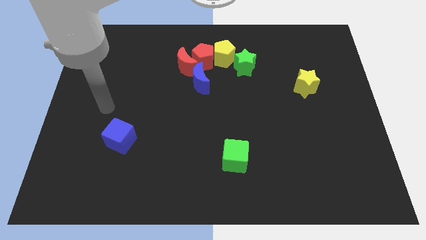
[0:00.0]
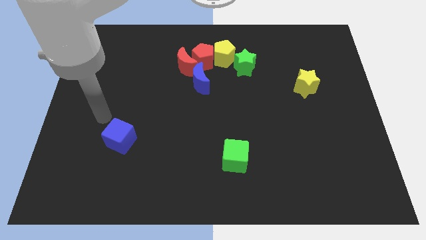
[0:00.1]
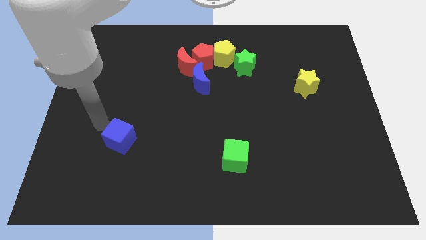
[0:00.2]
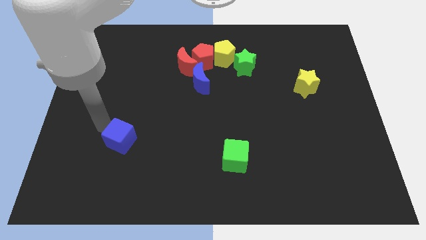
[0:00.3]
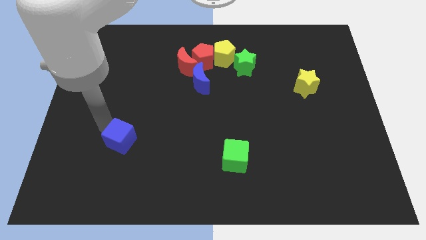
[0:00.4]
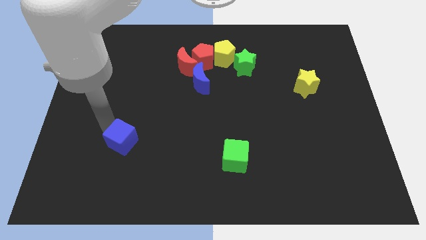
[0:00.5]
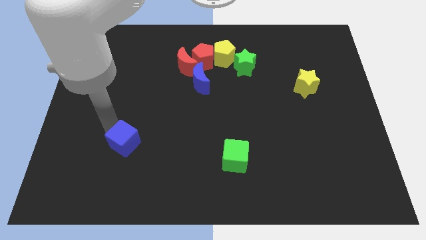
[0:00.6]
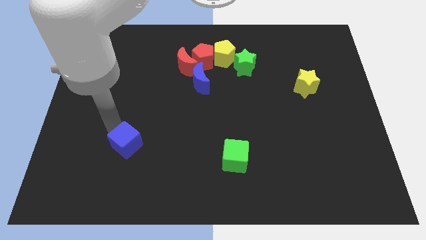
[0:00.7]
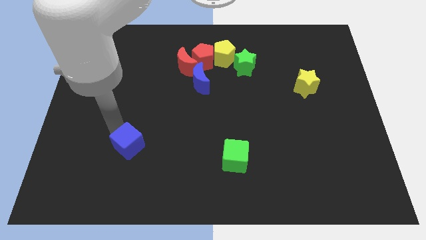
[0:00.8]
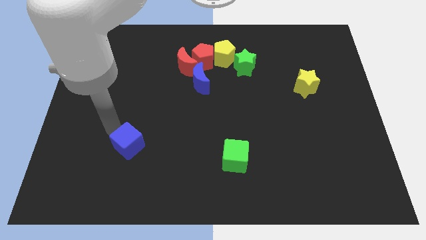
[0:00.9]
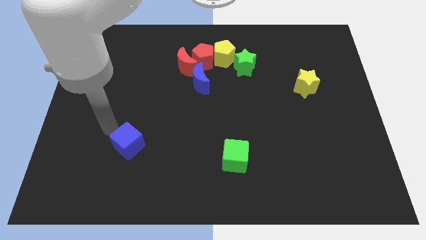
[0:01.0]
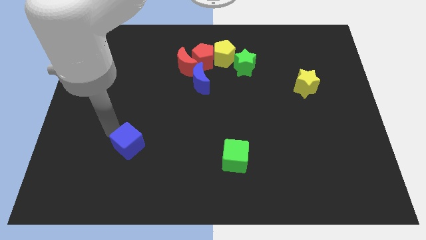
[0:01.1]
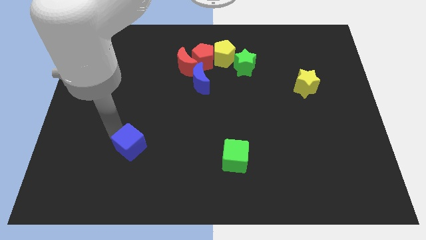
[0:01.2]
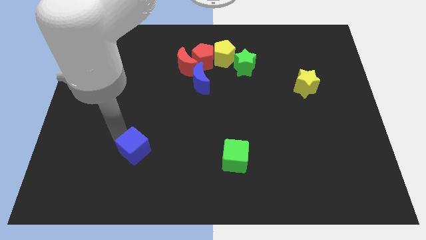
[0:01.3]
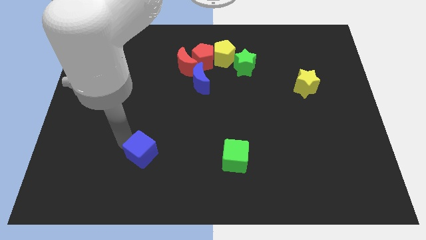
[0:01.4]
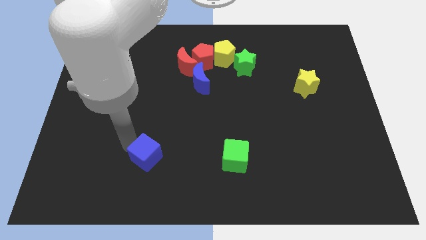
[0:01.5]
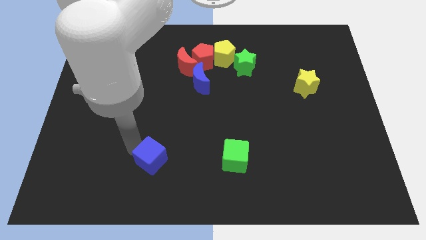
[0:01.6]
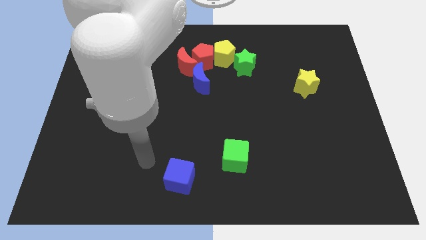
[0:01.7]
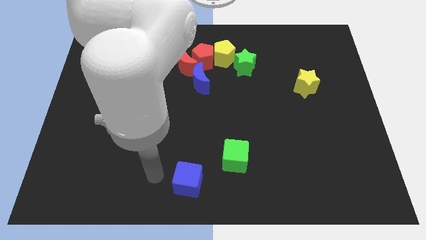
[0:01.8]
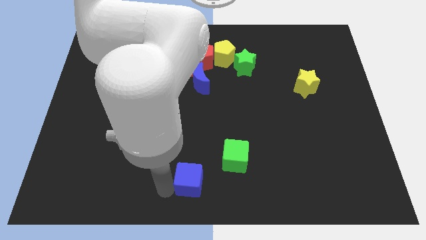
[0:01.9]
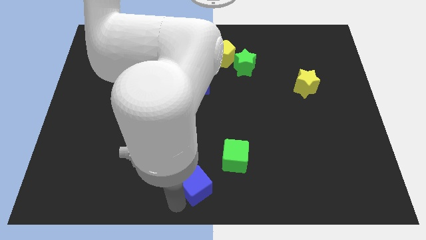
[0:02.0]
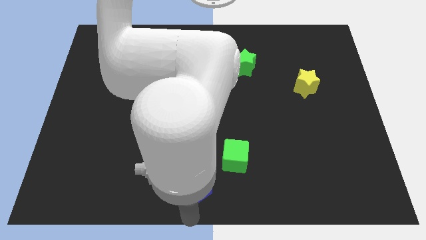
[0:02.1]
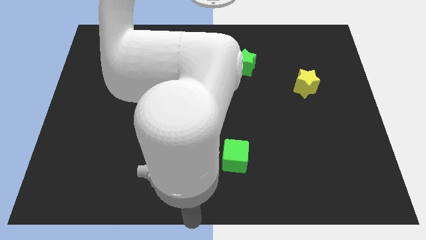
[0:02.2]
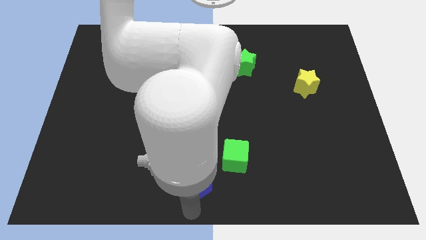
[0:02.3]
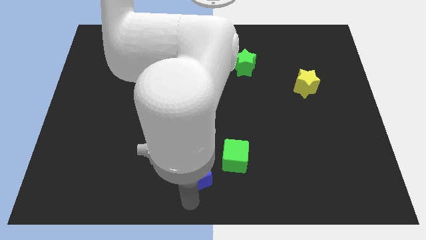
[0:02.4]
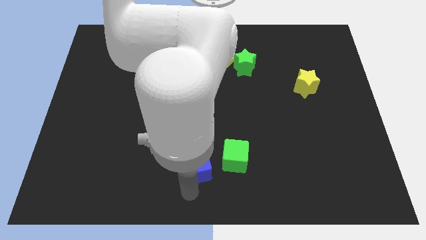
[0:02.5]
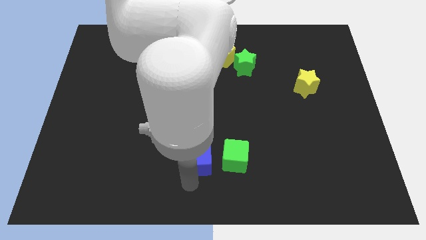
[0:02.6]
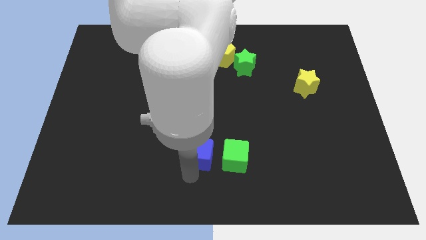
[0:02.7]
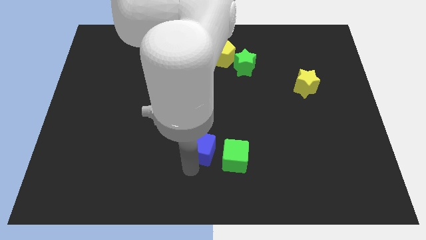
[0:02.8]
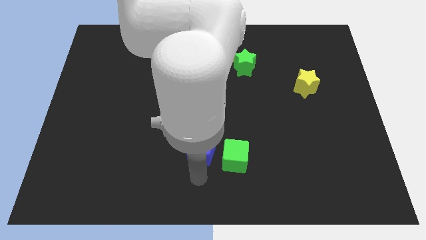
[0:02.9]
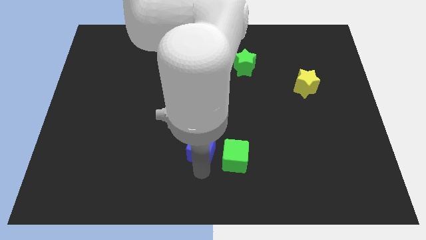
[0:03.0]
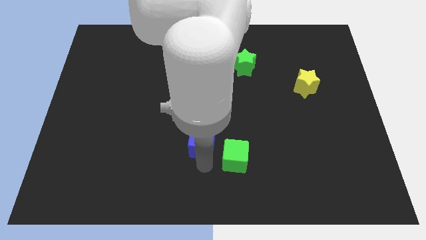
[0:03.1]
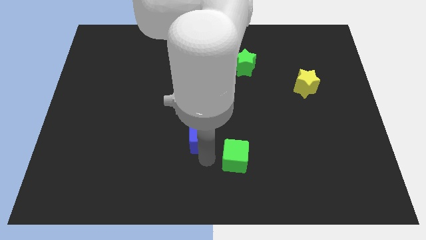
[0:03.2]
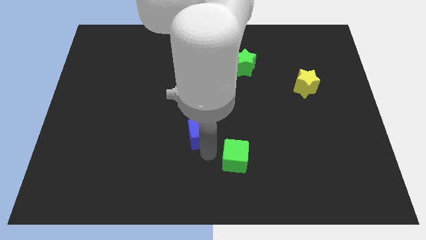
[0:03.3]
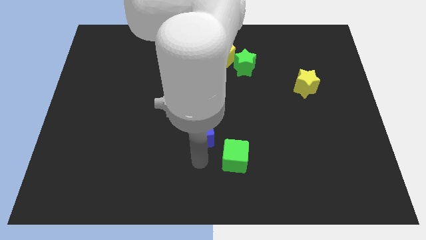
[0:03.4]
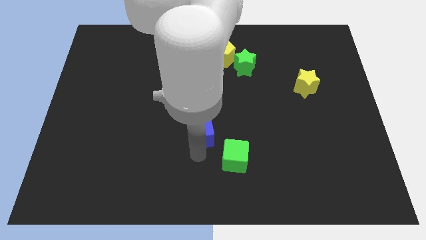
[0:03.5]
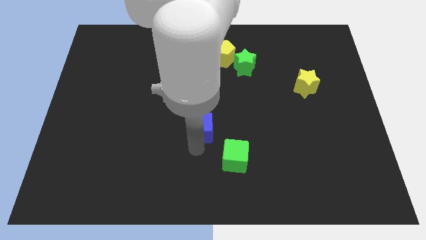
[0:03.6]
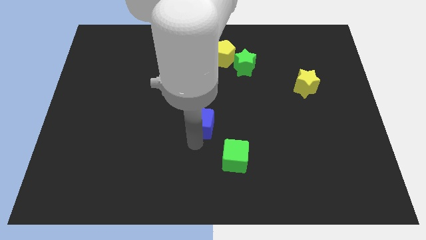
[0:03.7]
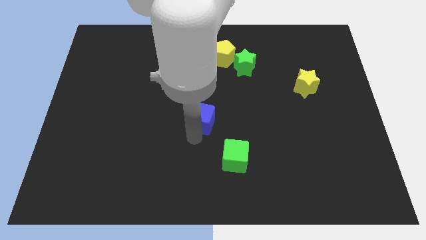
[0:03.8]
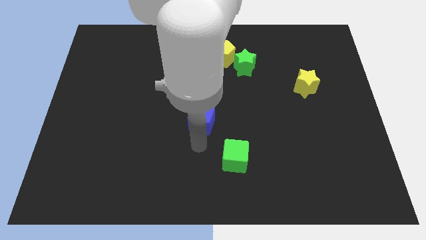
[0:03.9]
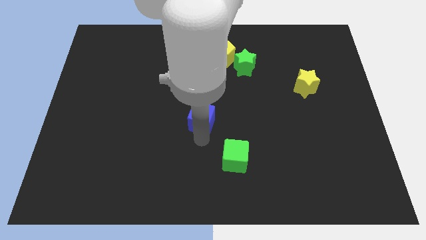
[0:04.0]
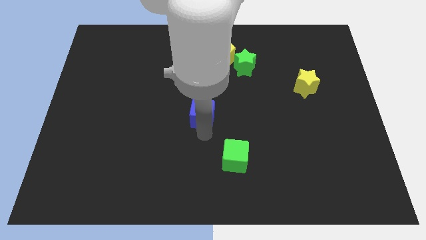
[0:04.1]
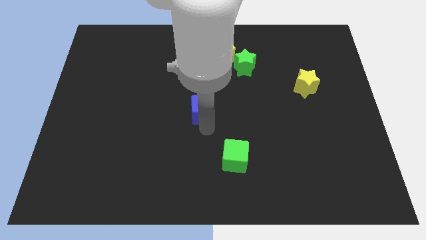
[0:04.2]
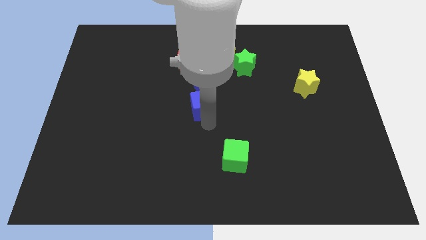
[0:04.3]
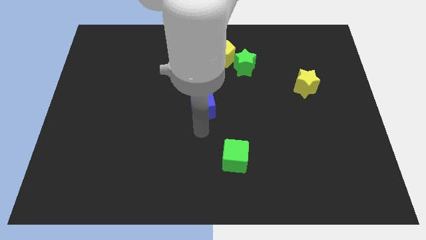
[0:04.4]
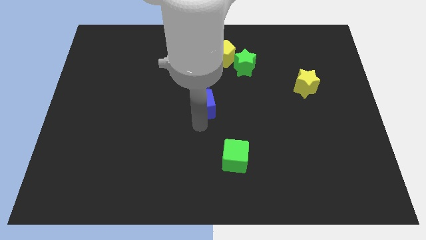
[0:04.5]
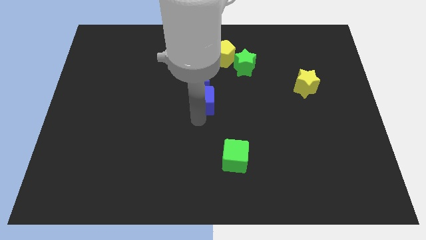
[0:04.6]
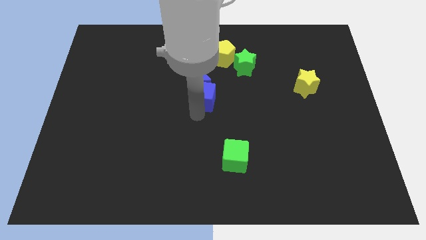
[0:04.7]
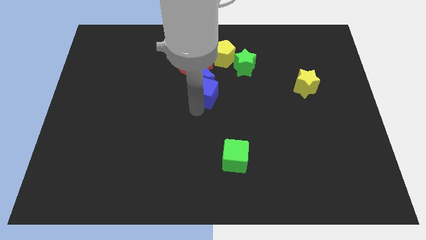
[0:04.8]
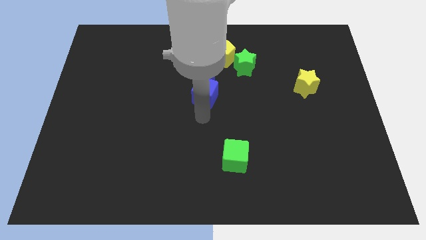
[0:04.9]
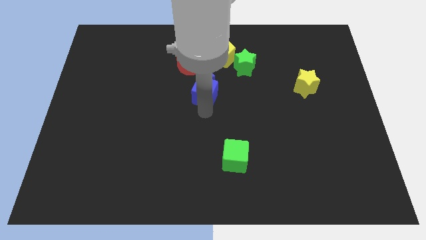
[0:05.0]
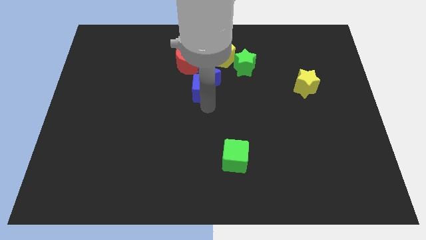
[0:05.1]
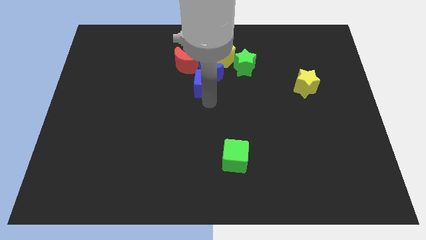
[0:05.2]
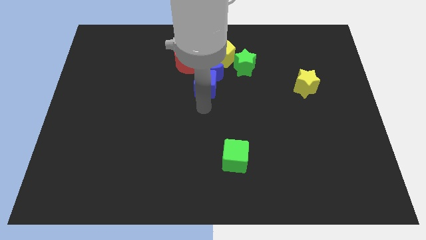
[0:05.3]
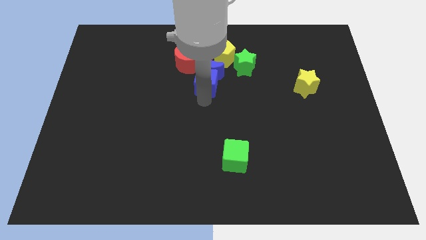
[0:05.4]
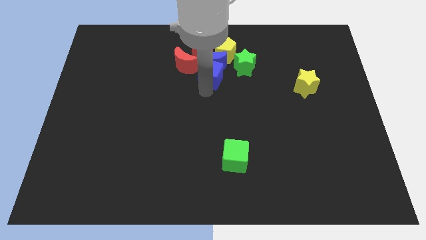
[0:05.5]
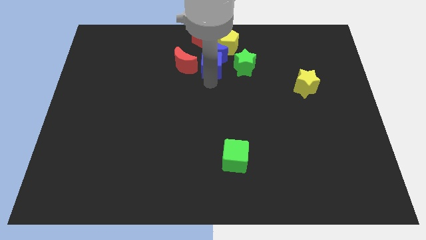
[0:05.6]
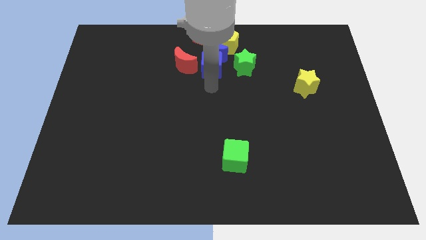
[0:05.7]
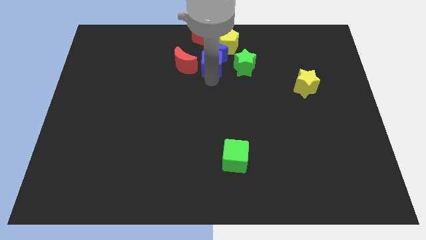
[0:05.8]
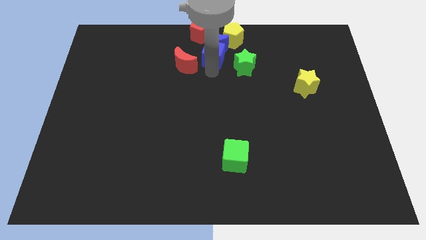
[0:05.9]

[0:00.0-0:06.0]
slide the blue cube to the towards your base

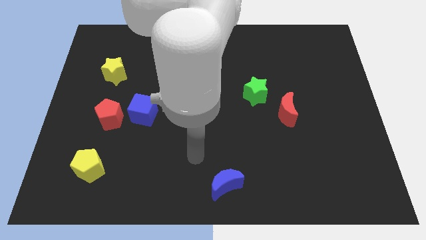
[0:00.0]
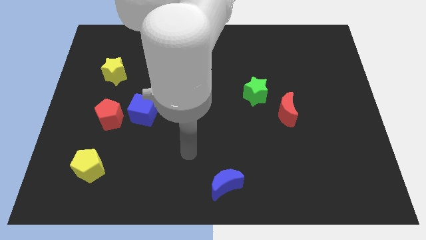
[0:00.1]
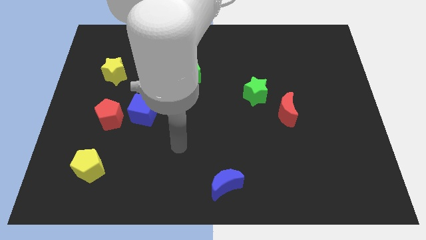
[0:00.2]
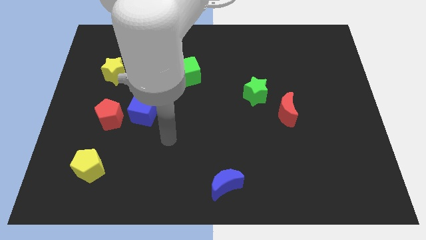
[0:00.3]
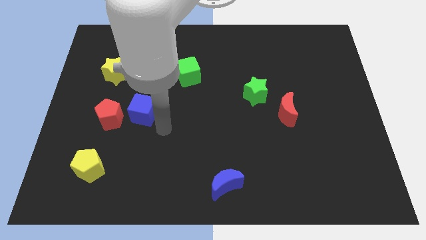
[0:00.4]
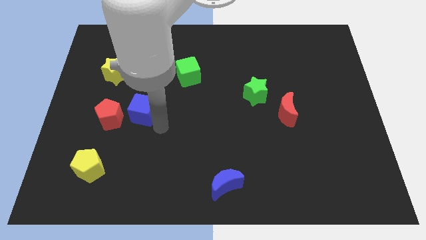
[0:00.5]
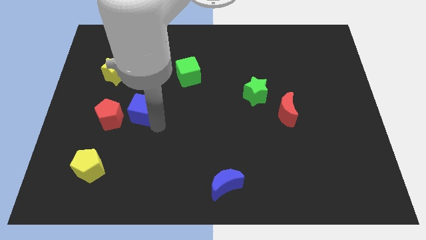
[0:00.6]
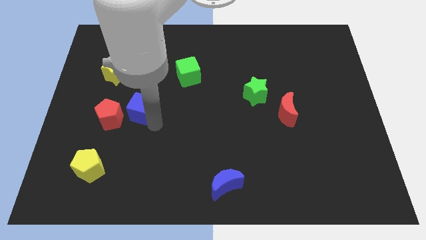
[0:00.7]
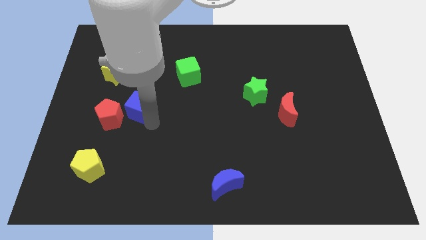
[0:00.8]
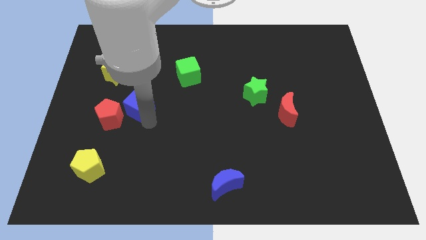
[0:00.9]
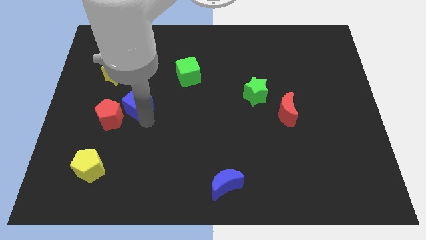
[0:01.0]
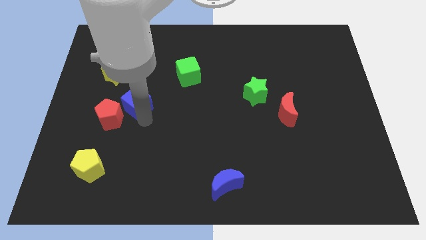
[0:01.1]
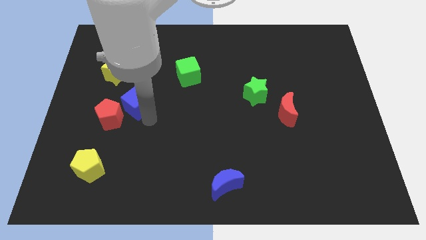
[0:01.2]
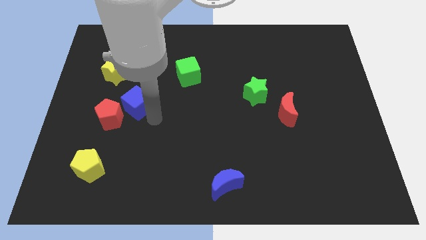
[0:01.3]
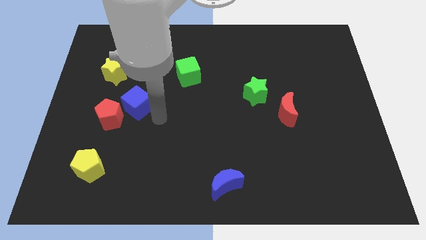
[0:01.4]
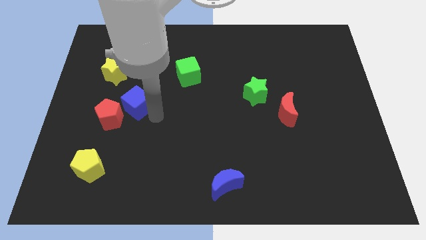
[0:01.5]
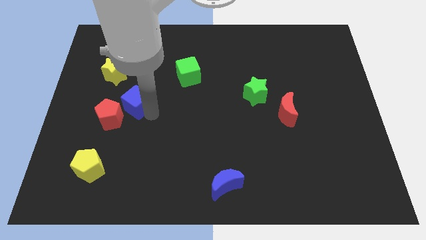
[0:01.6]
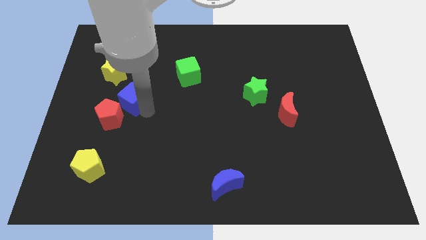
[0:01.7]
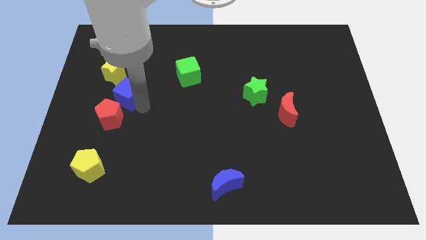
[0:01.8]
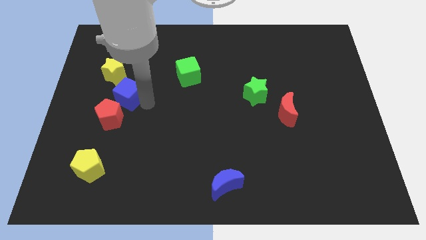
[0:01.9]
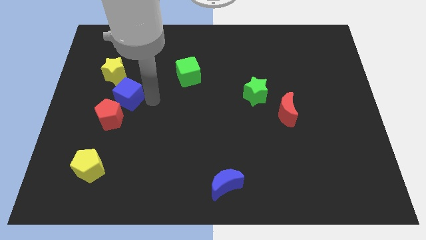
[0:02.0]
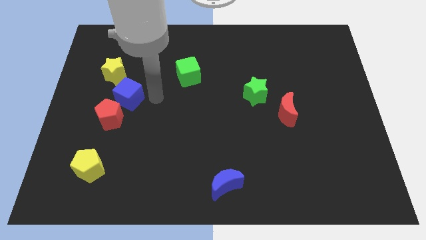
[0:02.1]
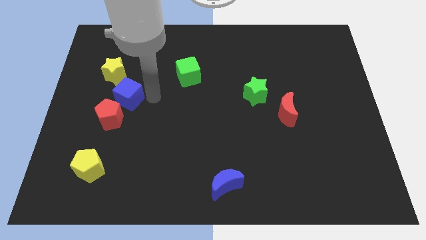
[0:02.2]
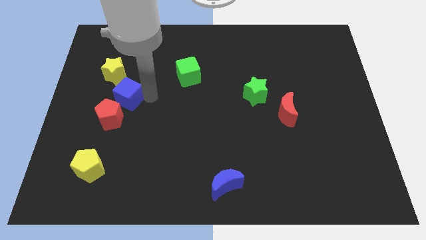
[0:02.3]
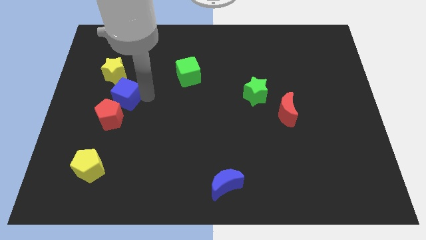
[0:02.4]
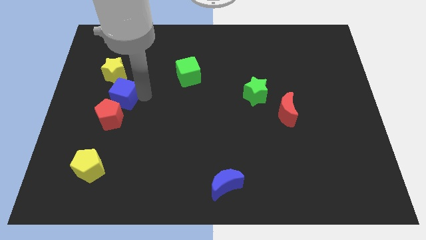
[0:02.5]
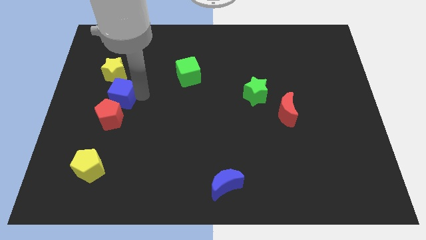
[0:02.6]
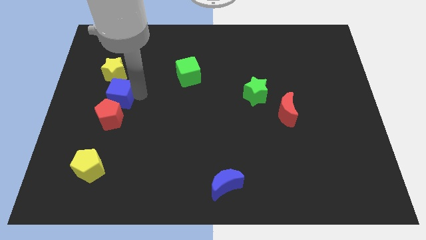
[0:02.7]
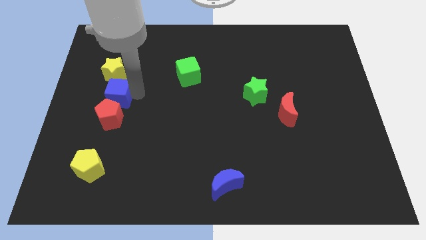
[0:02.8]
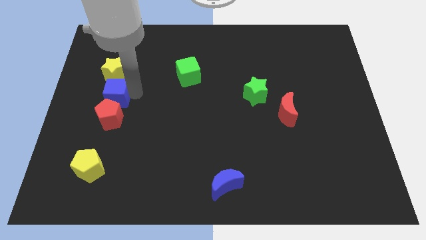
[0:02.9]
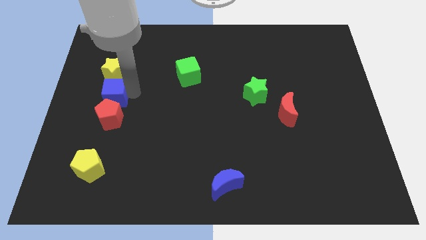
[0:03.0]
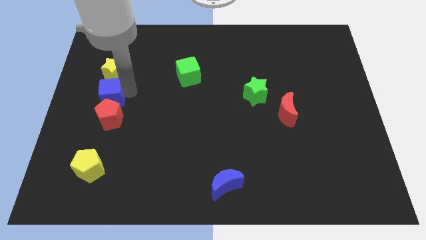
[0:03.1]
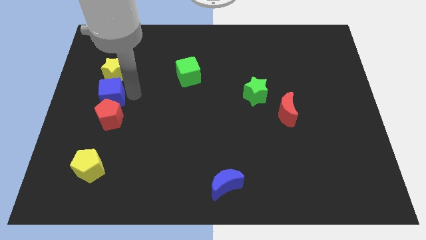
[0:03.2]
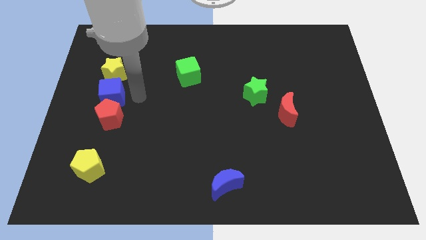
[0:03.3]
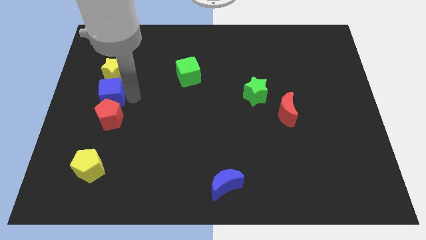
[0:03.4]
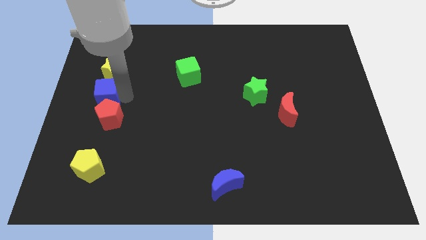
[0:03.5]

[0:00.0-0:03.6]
push the blue cube to the center left
